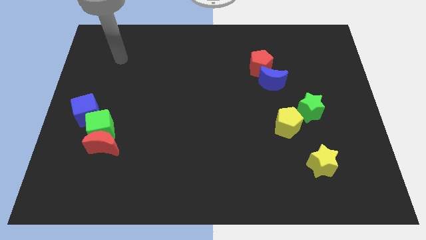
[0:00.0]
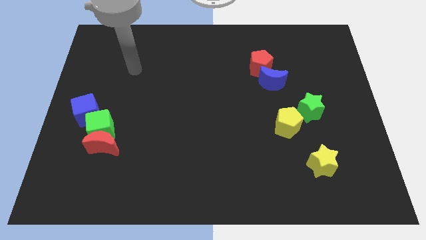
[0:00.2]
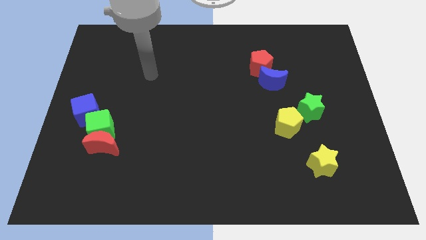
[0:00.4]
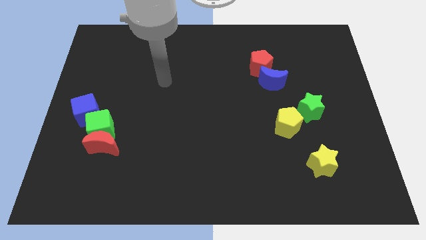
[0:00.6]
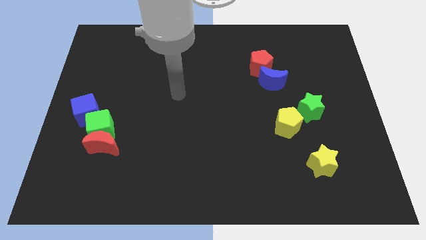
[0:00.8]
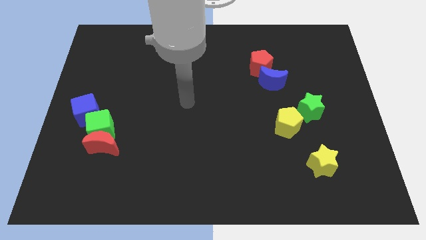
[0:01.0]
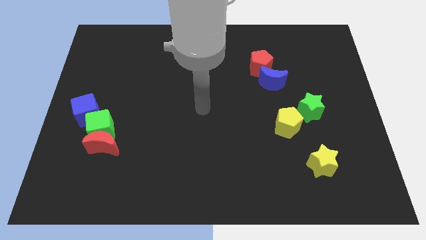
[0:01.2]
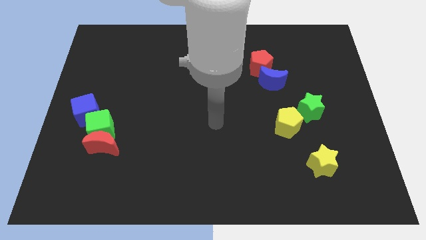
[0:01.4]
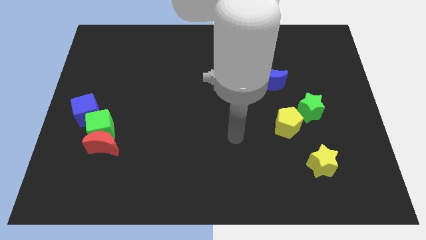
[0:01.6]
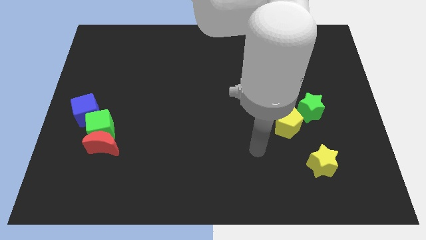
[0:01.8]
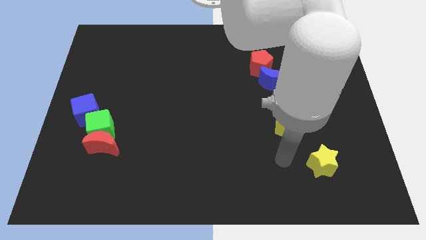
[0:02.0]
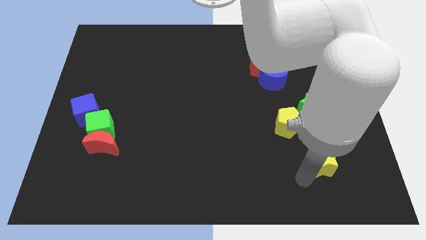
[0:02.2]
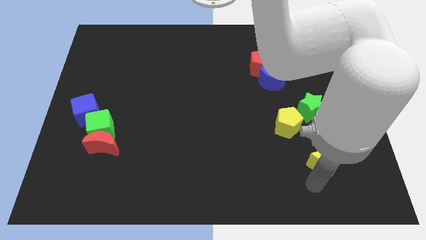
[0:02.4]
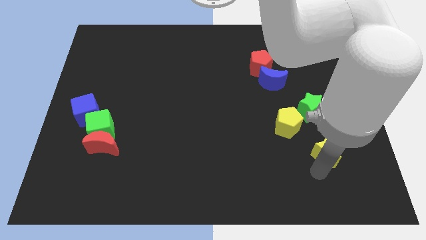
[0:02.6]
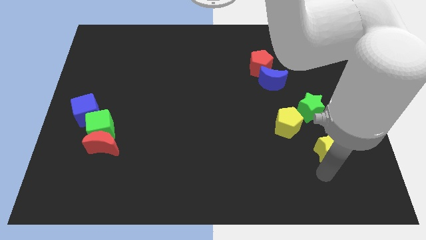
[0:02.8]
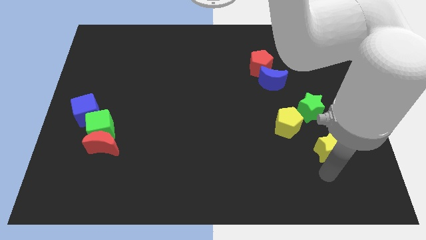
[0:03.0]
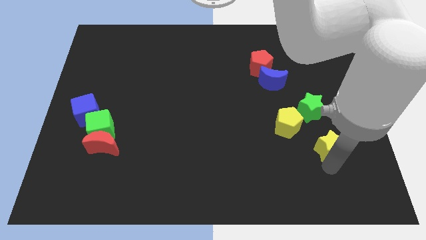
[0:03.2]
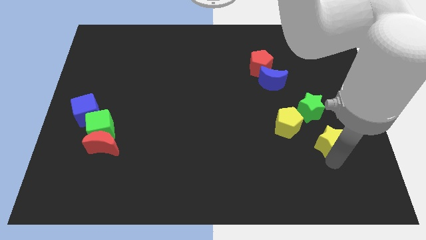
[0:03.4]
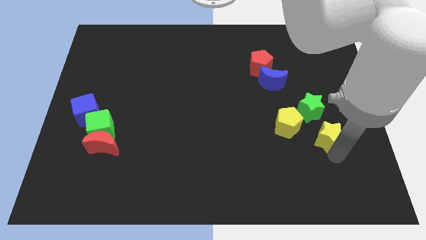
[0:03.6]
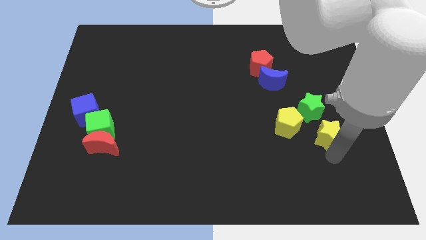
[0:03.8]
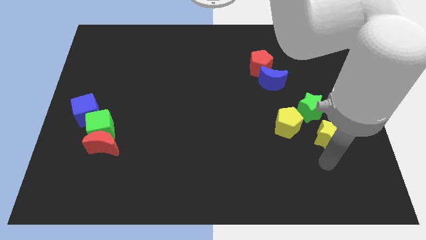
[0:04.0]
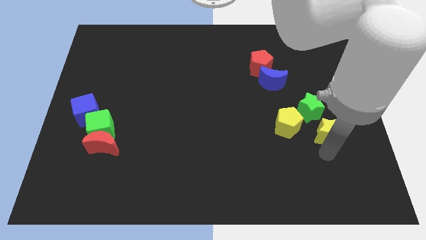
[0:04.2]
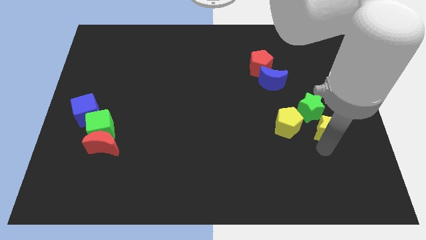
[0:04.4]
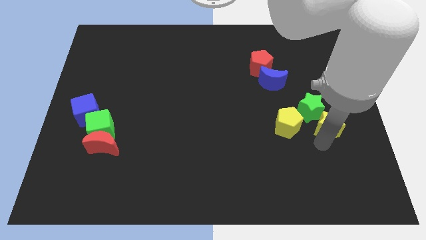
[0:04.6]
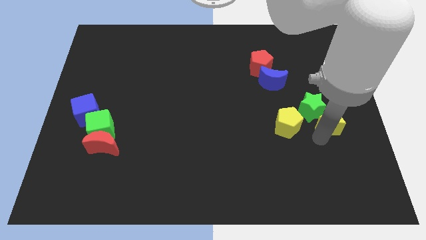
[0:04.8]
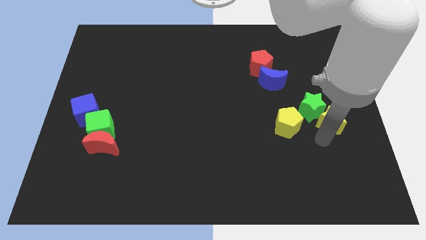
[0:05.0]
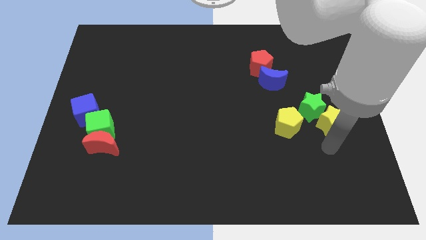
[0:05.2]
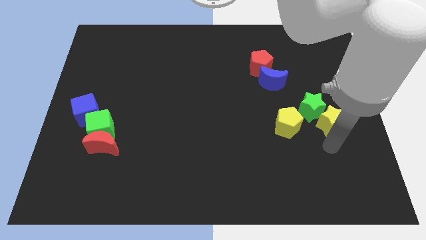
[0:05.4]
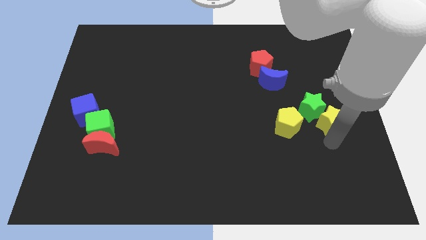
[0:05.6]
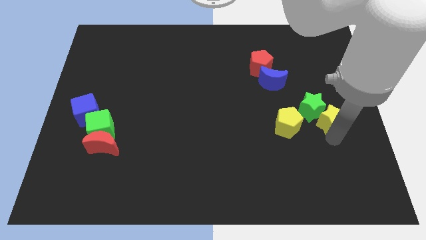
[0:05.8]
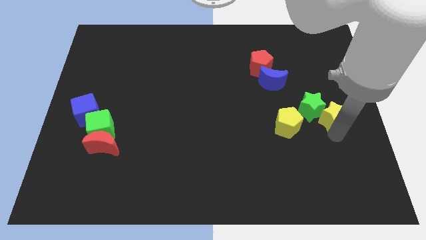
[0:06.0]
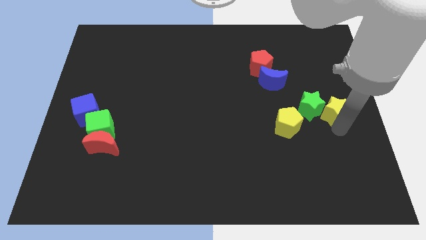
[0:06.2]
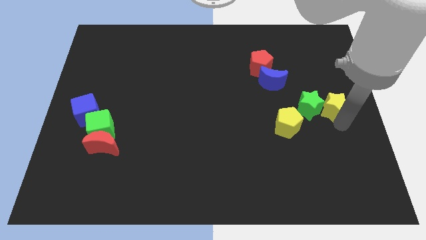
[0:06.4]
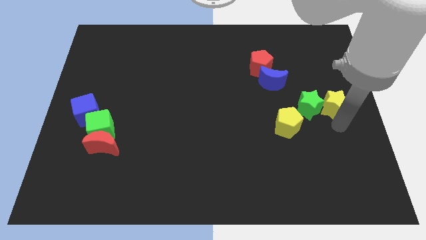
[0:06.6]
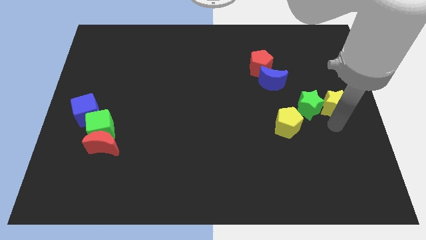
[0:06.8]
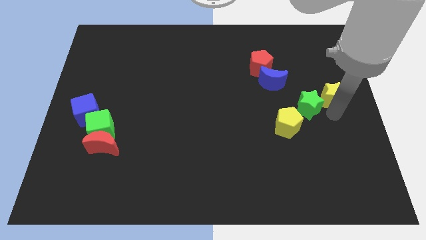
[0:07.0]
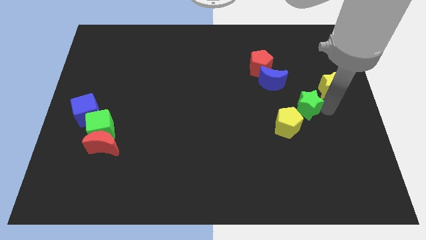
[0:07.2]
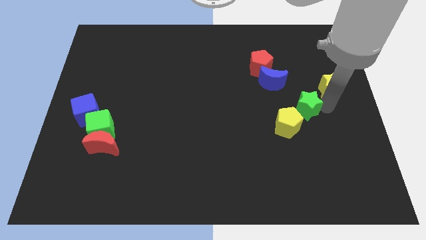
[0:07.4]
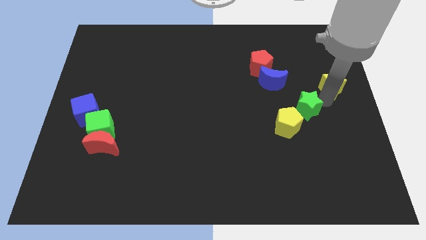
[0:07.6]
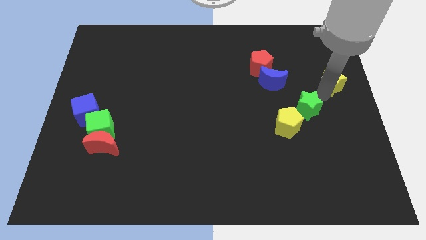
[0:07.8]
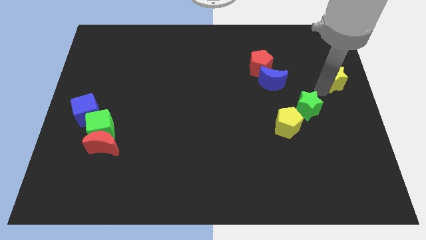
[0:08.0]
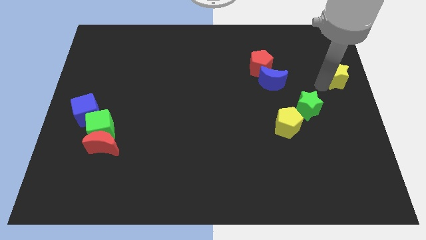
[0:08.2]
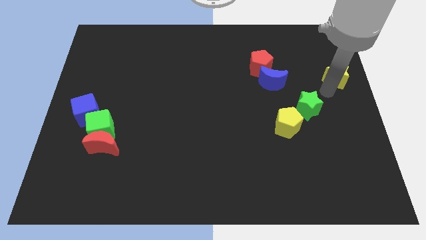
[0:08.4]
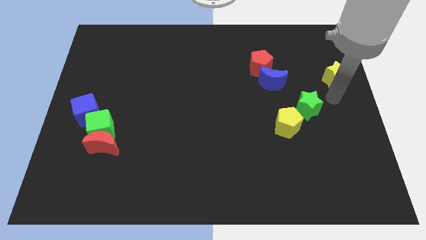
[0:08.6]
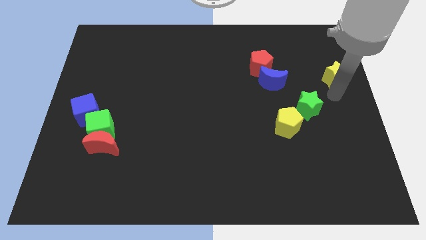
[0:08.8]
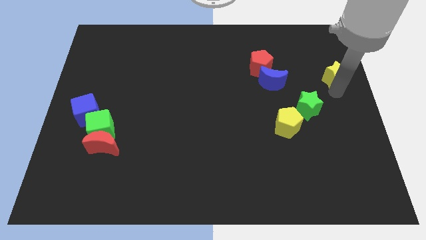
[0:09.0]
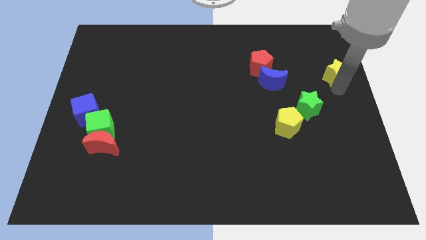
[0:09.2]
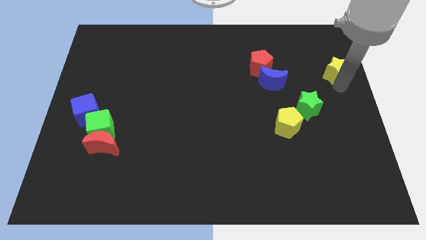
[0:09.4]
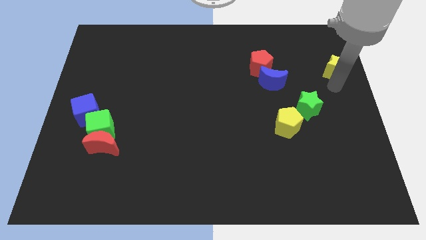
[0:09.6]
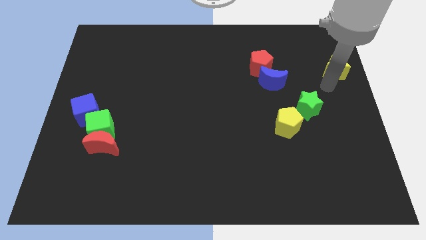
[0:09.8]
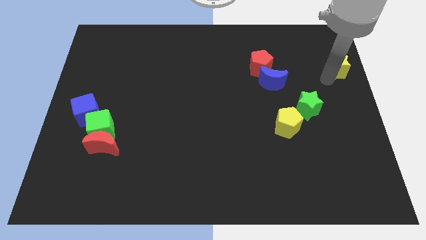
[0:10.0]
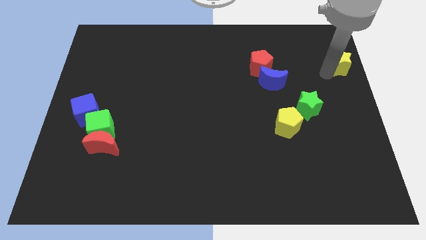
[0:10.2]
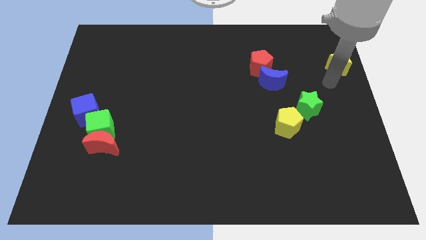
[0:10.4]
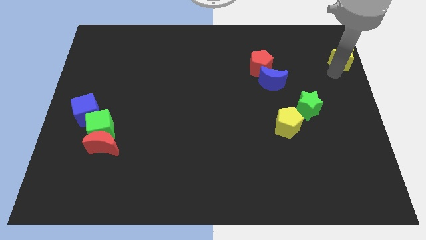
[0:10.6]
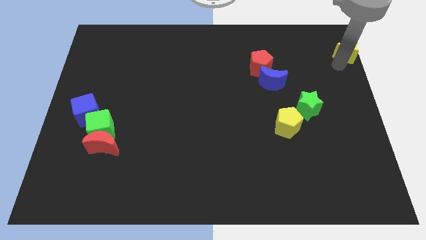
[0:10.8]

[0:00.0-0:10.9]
push the yellow star to the top right corner

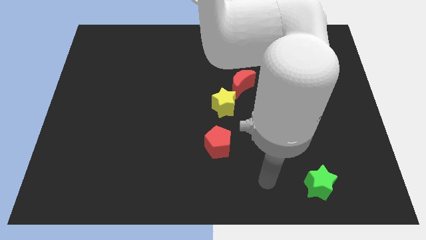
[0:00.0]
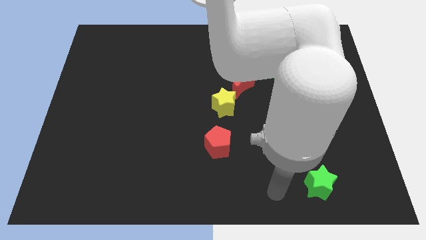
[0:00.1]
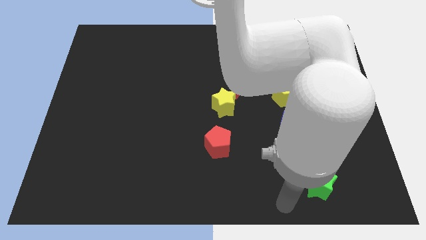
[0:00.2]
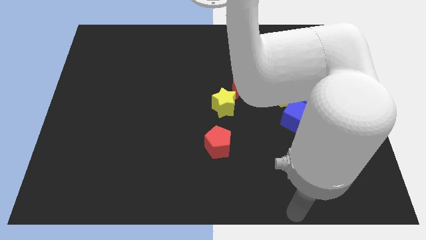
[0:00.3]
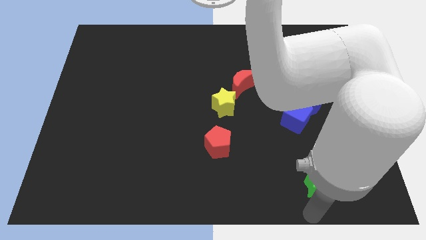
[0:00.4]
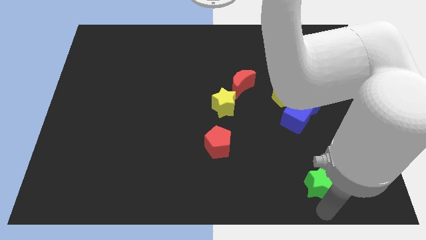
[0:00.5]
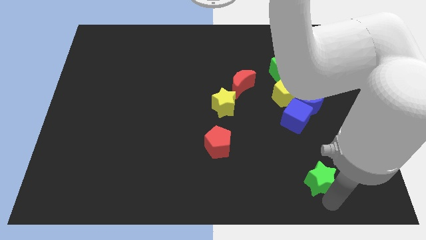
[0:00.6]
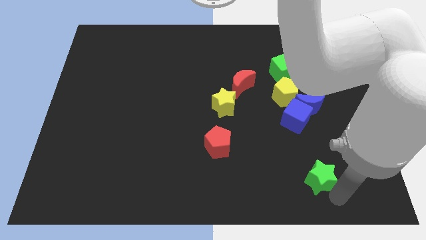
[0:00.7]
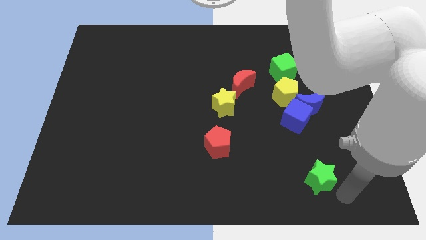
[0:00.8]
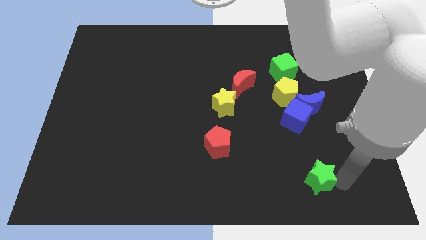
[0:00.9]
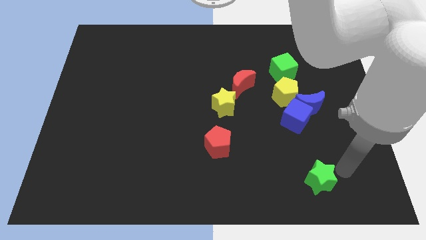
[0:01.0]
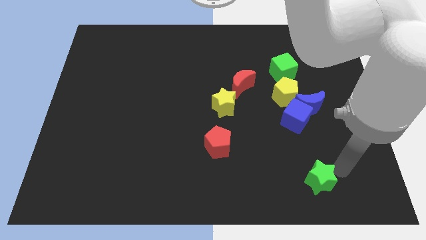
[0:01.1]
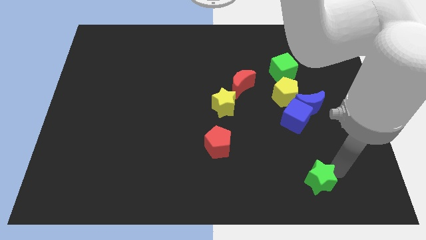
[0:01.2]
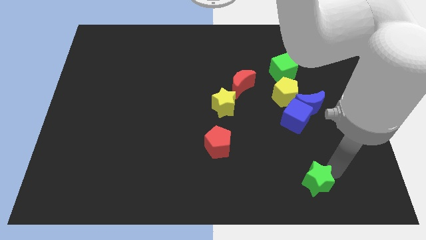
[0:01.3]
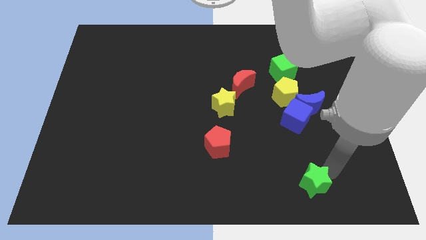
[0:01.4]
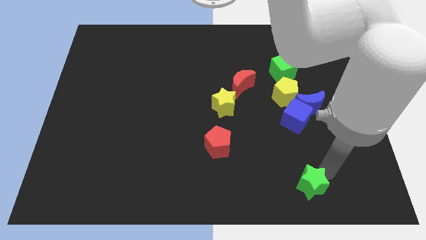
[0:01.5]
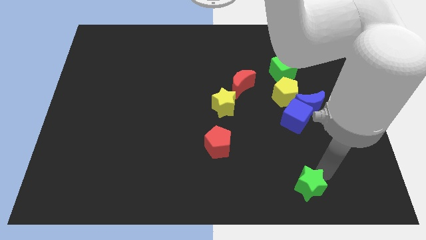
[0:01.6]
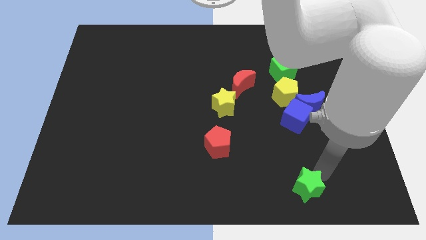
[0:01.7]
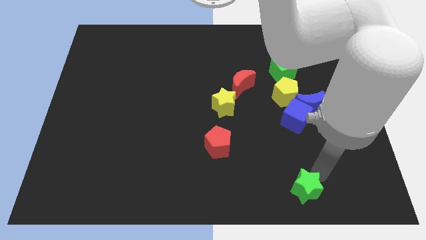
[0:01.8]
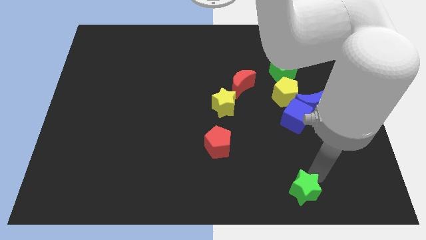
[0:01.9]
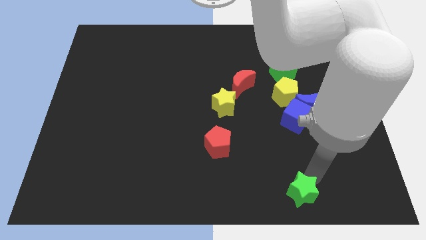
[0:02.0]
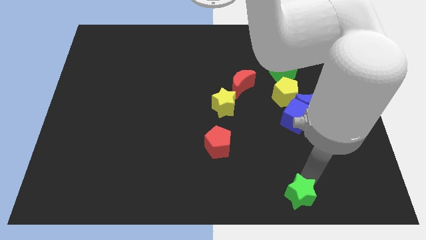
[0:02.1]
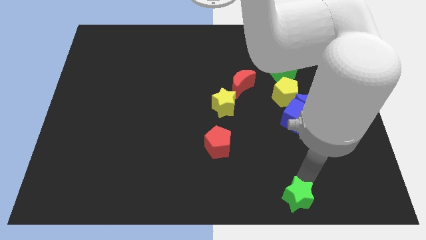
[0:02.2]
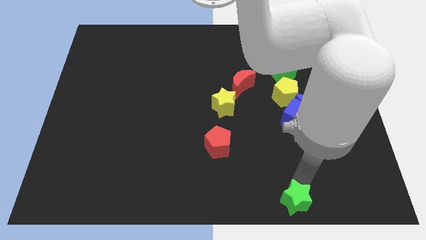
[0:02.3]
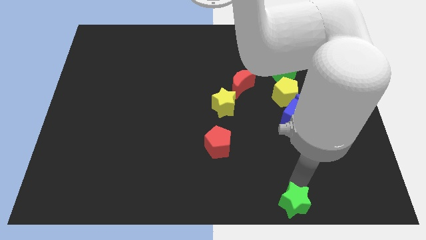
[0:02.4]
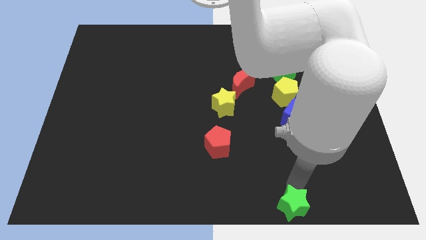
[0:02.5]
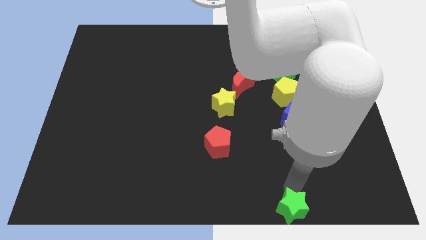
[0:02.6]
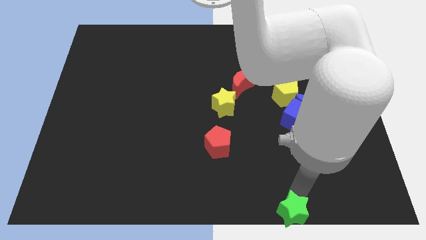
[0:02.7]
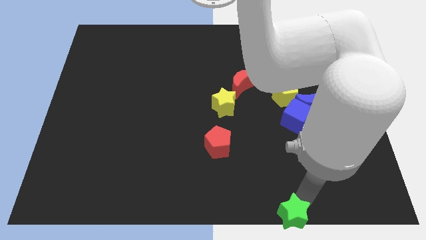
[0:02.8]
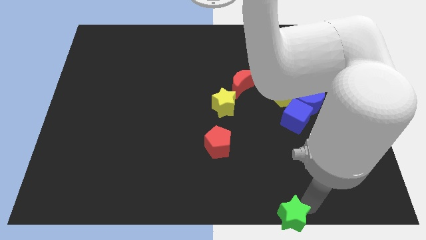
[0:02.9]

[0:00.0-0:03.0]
slide the green star to the bottom
